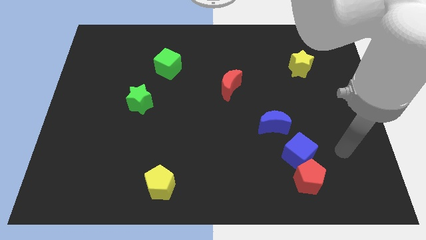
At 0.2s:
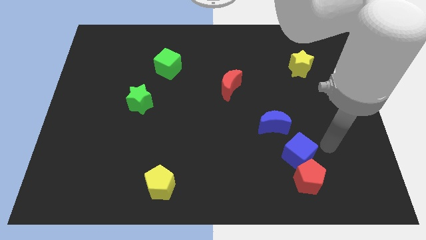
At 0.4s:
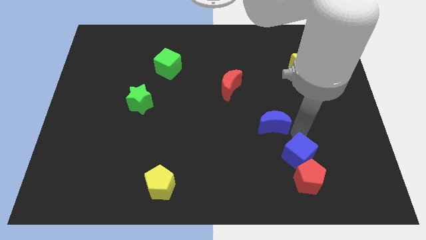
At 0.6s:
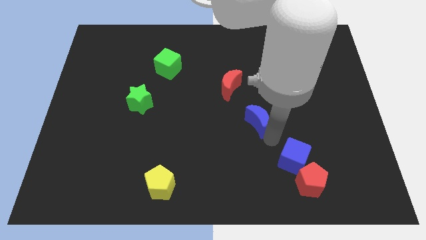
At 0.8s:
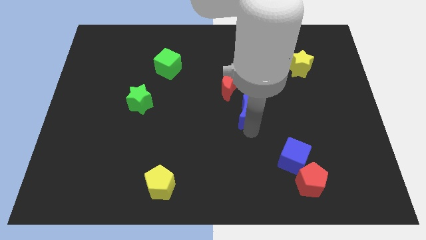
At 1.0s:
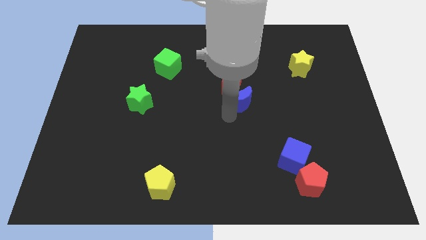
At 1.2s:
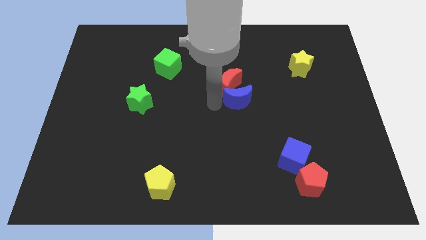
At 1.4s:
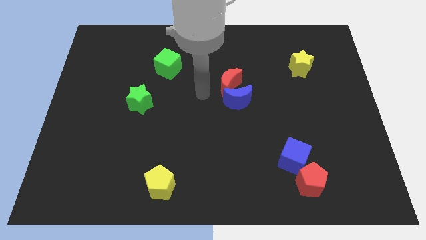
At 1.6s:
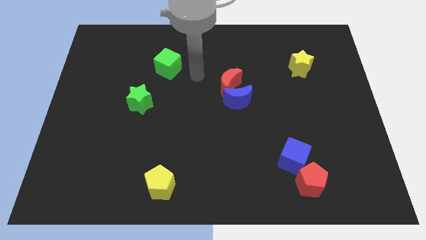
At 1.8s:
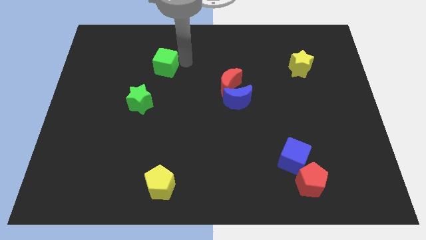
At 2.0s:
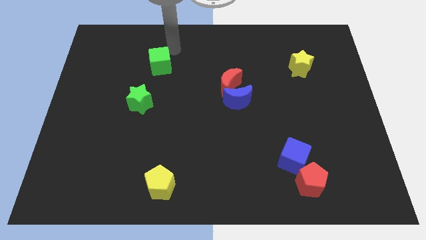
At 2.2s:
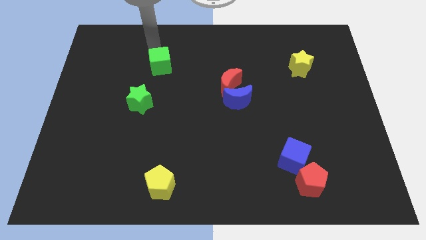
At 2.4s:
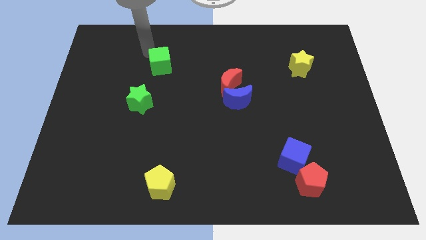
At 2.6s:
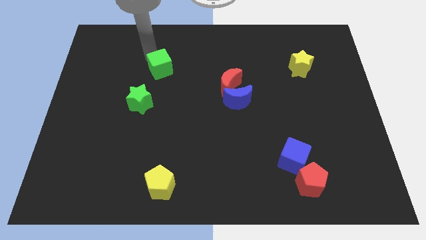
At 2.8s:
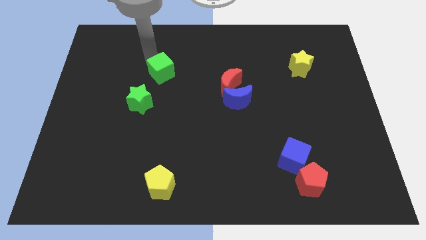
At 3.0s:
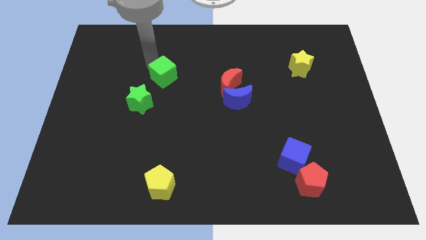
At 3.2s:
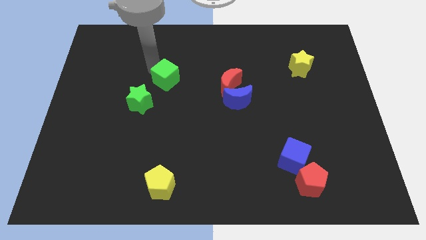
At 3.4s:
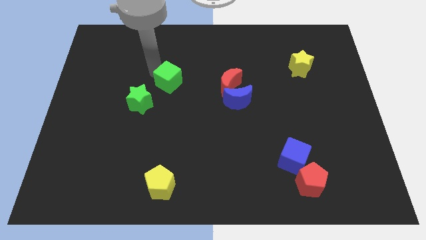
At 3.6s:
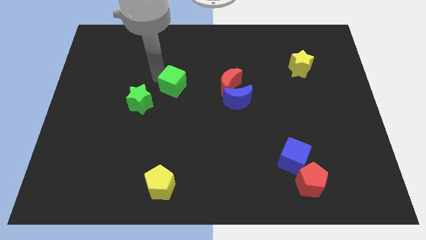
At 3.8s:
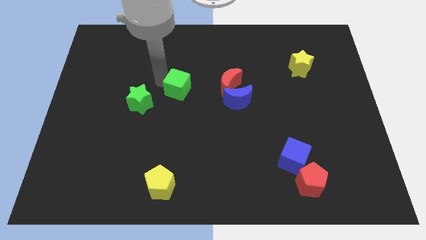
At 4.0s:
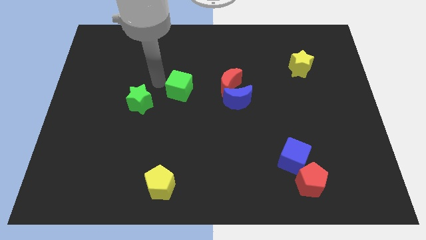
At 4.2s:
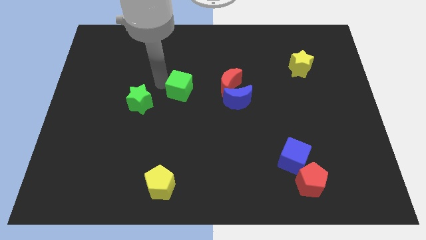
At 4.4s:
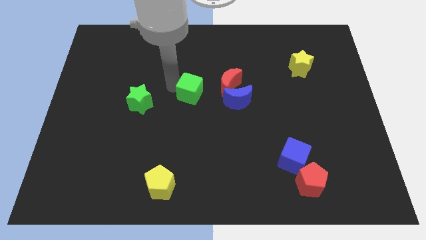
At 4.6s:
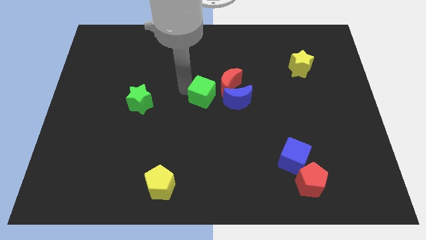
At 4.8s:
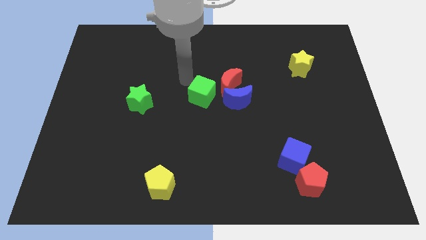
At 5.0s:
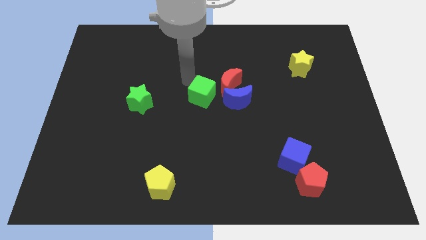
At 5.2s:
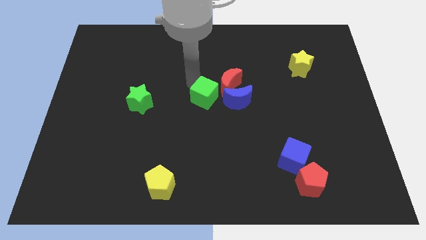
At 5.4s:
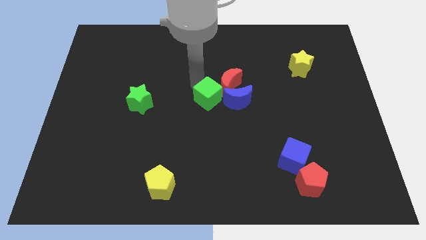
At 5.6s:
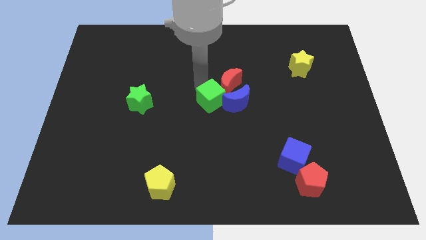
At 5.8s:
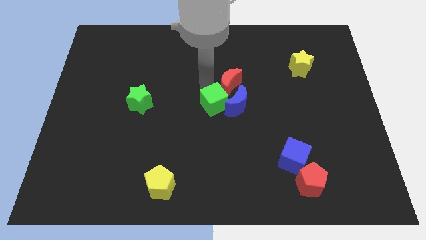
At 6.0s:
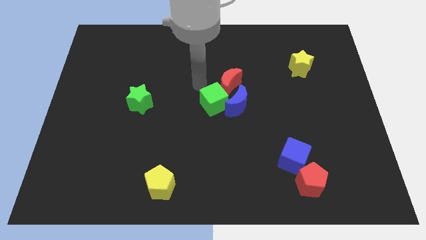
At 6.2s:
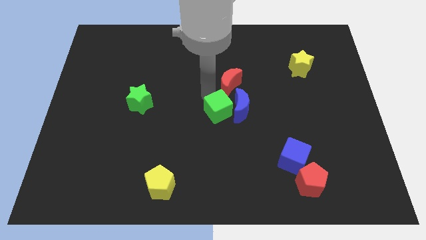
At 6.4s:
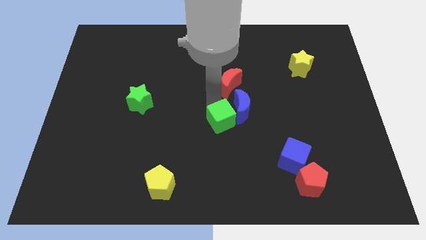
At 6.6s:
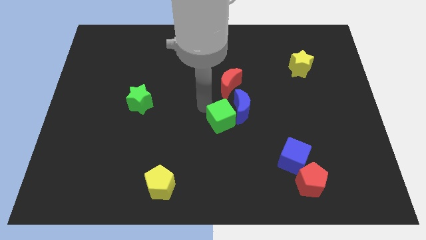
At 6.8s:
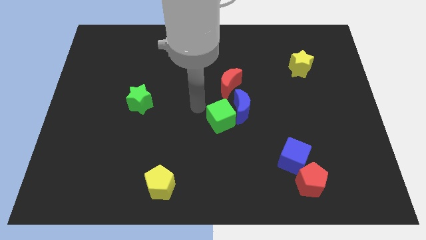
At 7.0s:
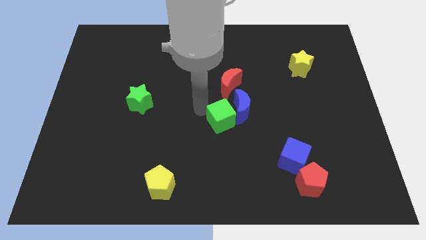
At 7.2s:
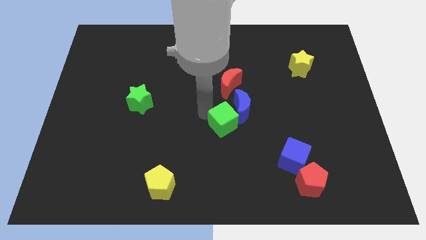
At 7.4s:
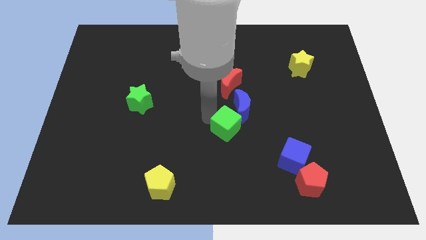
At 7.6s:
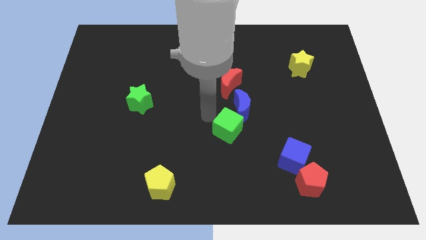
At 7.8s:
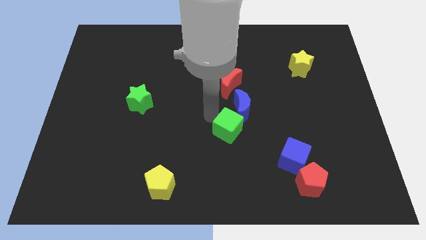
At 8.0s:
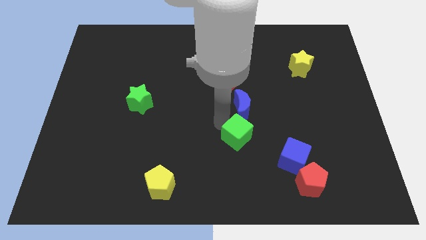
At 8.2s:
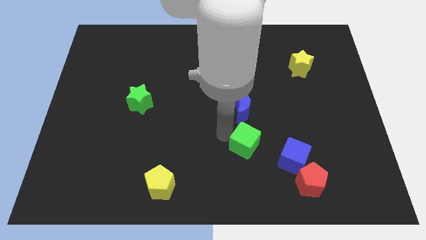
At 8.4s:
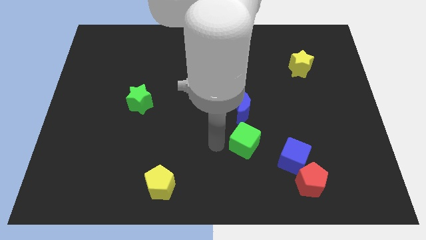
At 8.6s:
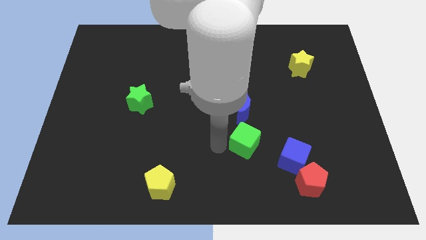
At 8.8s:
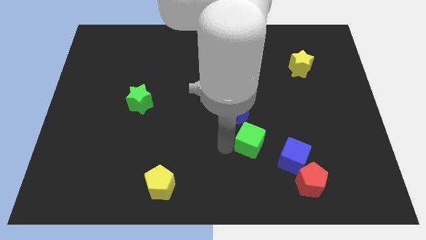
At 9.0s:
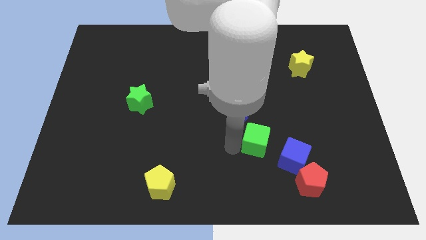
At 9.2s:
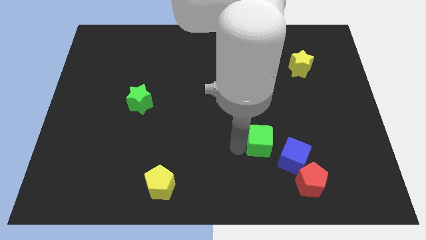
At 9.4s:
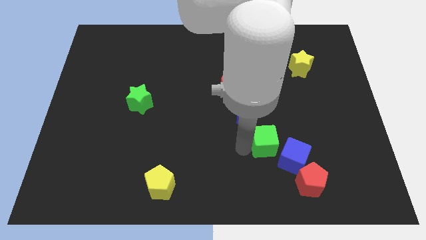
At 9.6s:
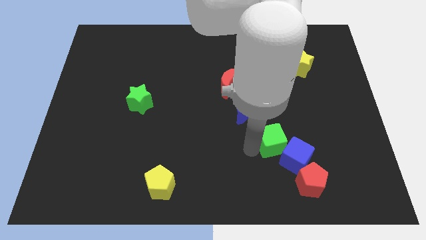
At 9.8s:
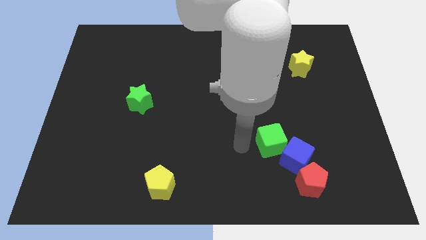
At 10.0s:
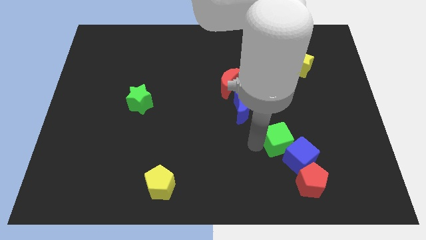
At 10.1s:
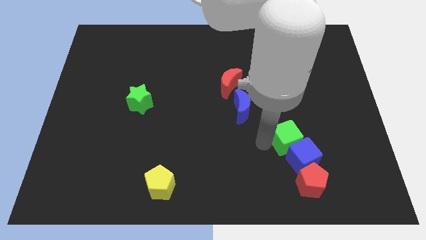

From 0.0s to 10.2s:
push the green cube above the red pentagon

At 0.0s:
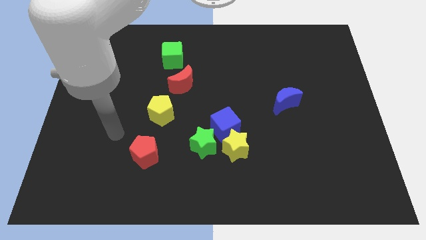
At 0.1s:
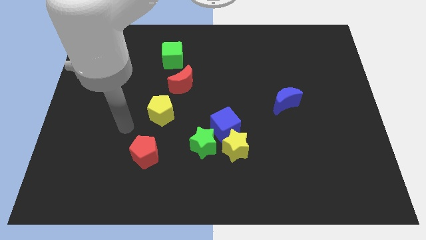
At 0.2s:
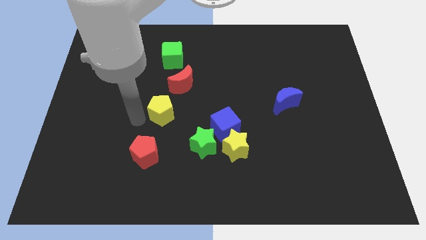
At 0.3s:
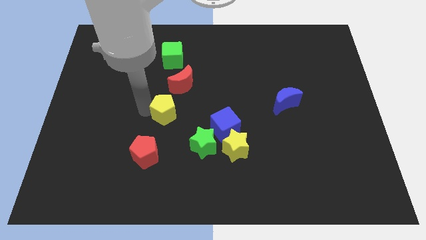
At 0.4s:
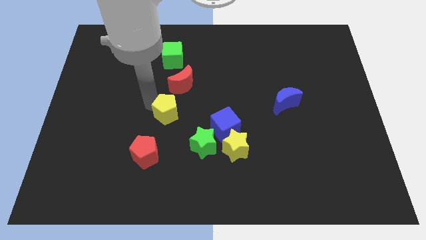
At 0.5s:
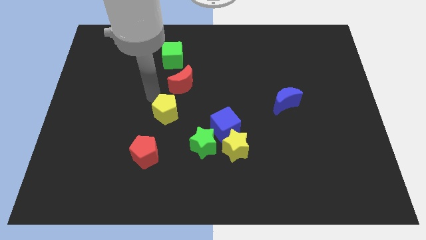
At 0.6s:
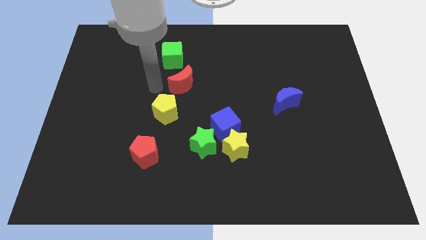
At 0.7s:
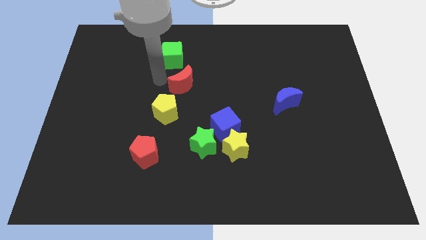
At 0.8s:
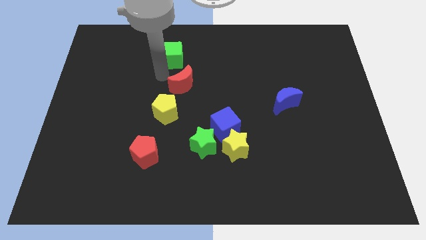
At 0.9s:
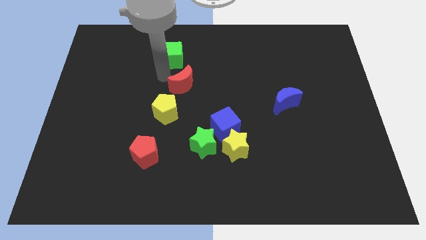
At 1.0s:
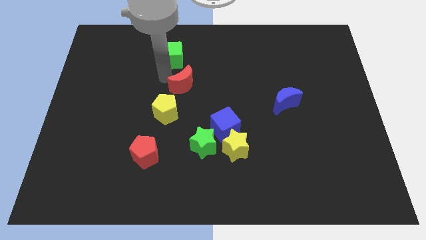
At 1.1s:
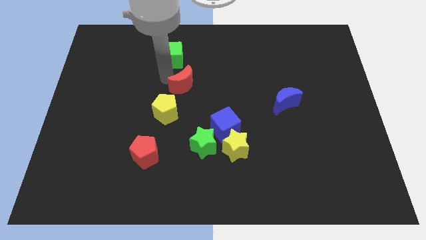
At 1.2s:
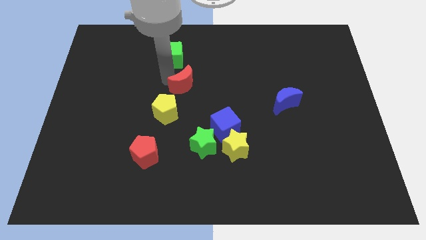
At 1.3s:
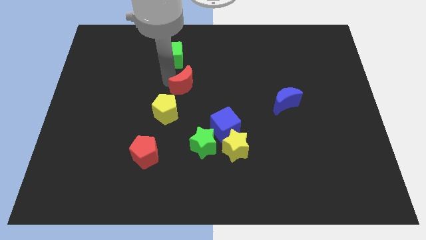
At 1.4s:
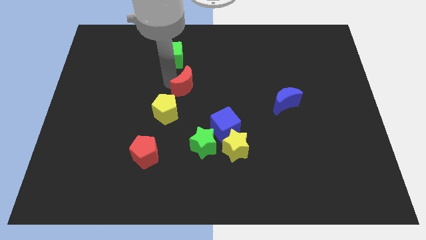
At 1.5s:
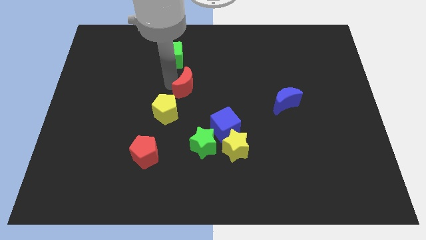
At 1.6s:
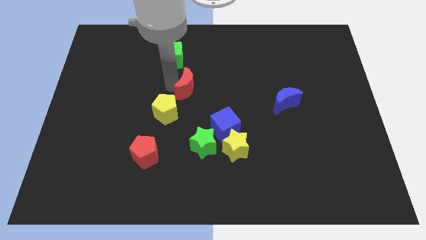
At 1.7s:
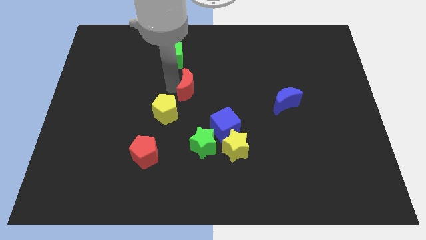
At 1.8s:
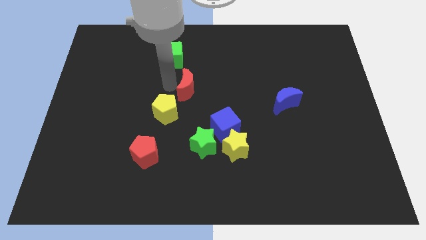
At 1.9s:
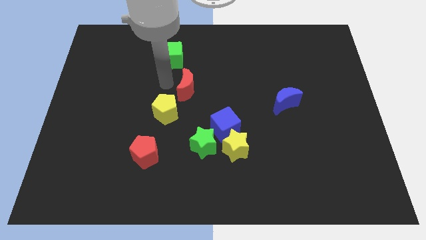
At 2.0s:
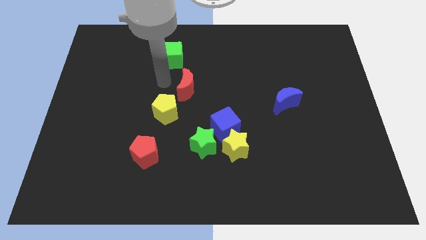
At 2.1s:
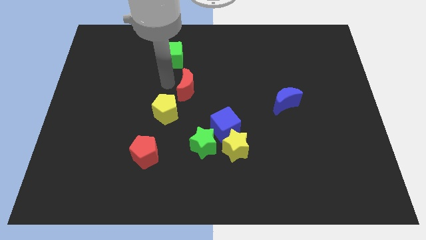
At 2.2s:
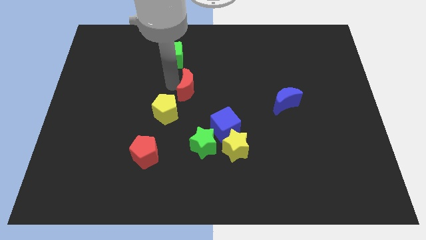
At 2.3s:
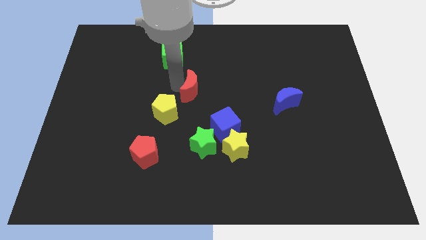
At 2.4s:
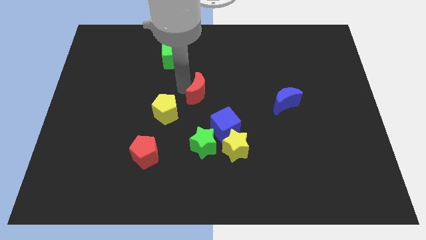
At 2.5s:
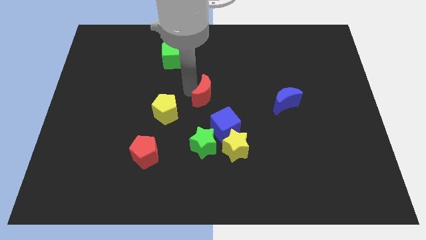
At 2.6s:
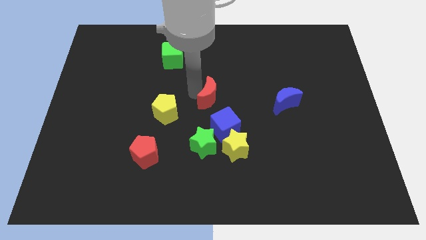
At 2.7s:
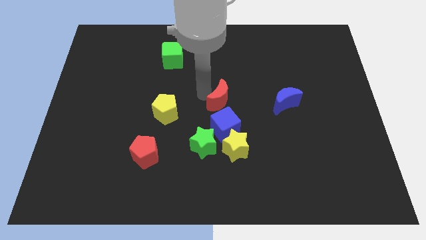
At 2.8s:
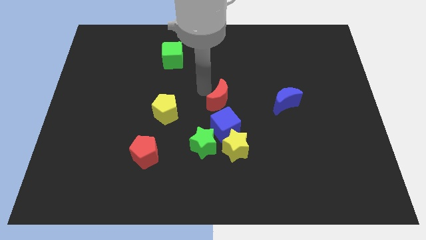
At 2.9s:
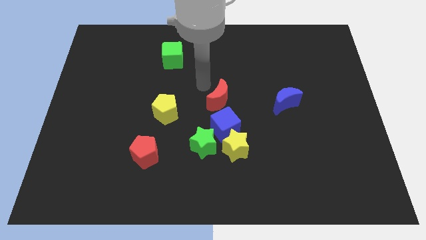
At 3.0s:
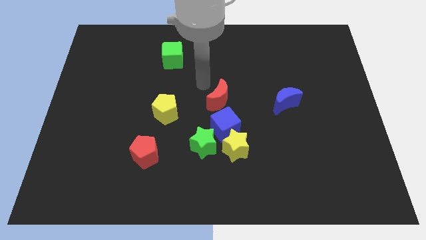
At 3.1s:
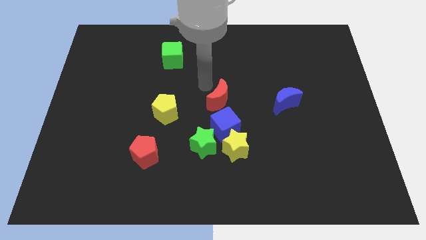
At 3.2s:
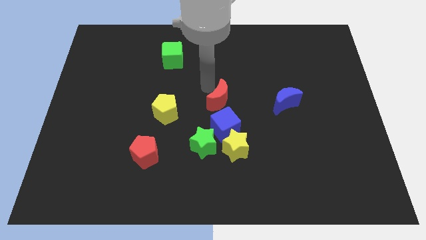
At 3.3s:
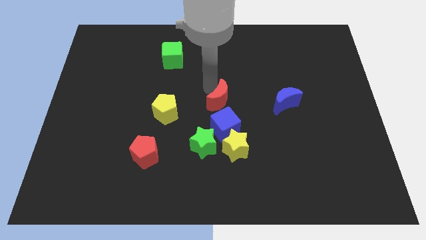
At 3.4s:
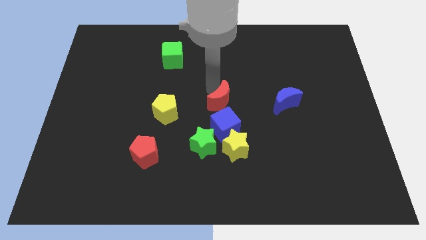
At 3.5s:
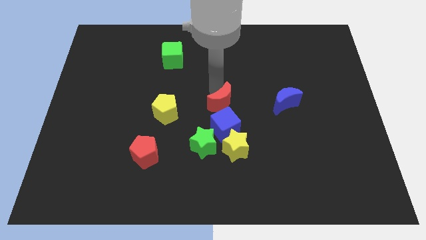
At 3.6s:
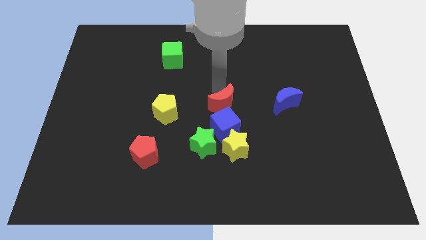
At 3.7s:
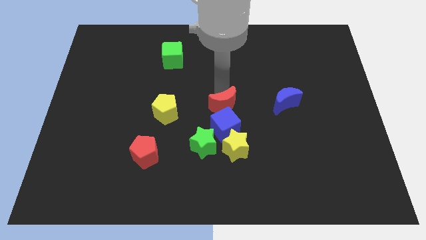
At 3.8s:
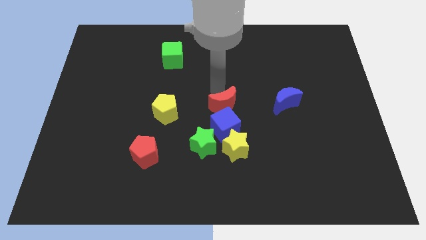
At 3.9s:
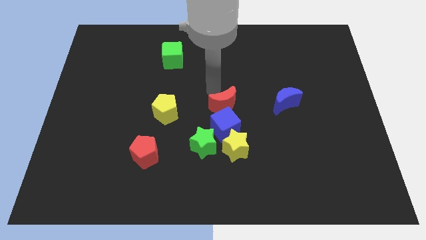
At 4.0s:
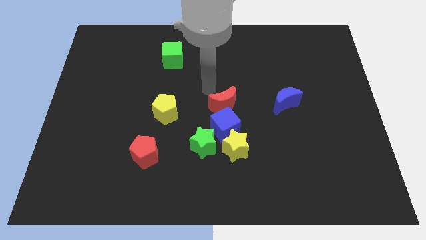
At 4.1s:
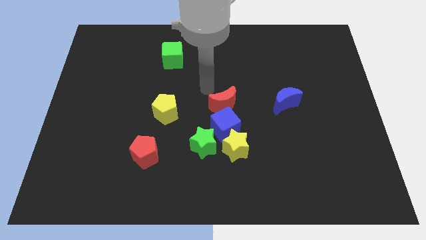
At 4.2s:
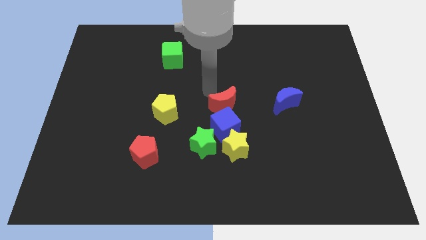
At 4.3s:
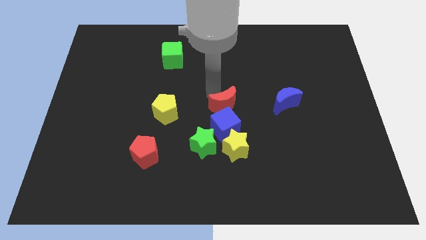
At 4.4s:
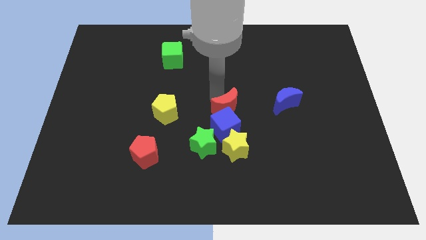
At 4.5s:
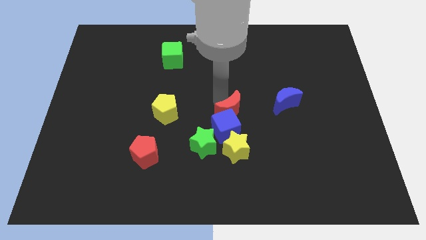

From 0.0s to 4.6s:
push the red moon diagonally up and to the right of the green star
